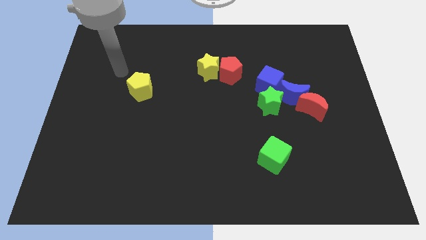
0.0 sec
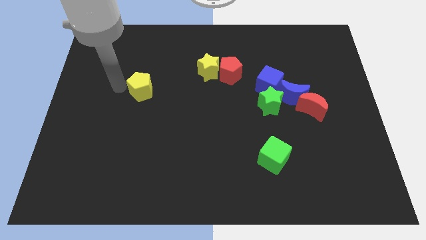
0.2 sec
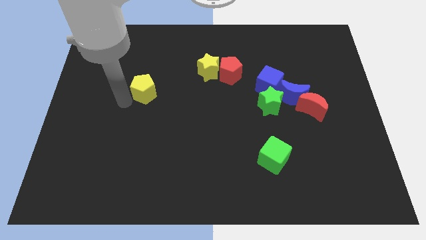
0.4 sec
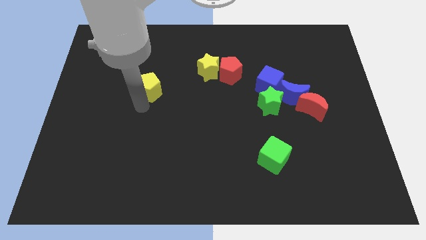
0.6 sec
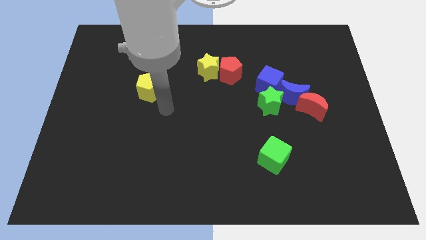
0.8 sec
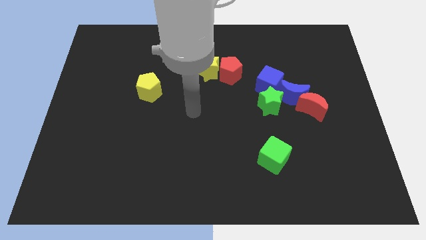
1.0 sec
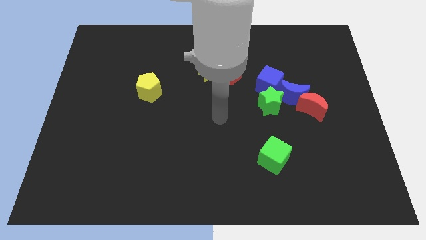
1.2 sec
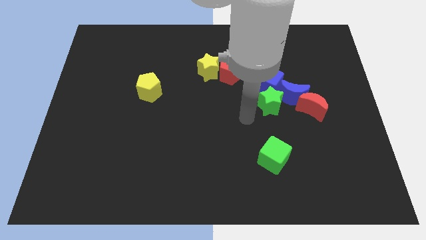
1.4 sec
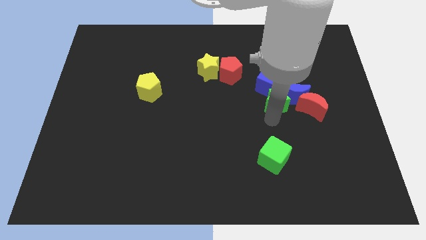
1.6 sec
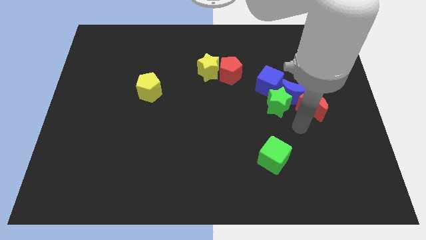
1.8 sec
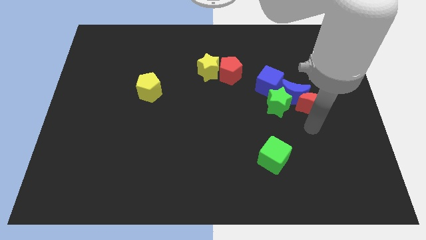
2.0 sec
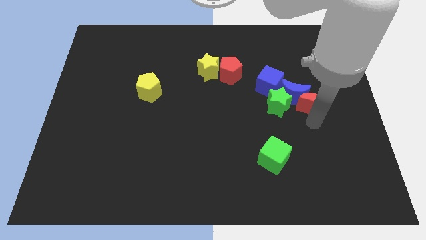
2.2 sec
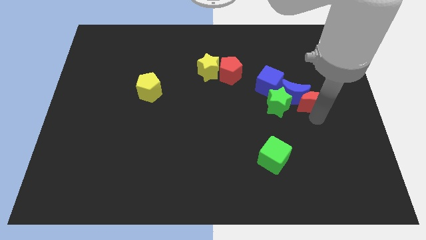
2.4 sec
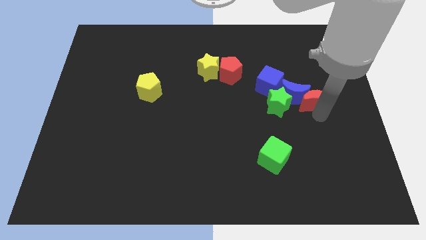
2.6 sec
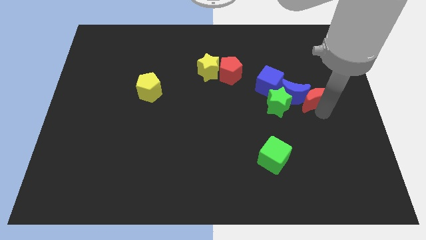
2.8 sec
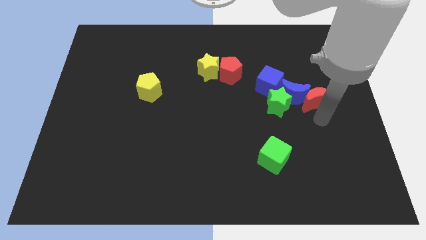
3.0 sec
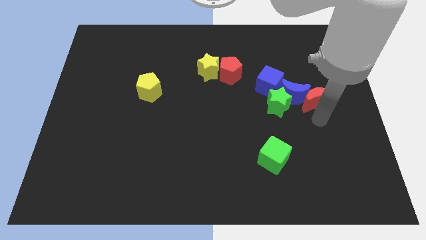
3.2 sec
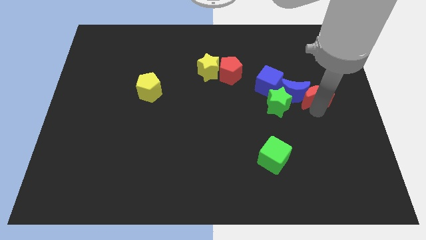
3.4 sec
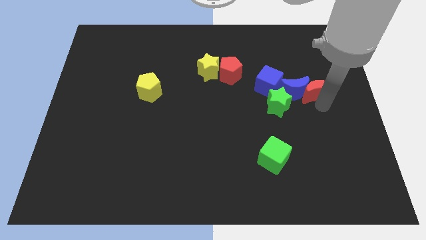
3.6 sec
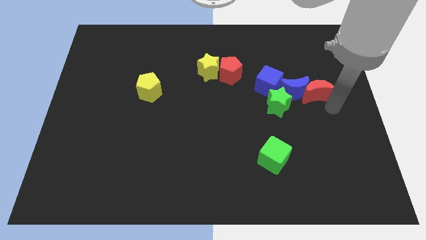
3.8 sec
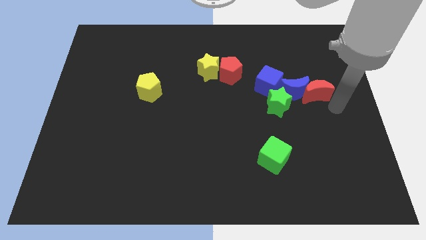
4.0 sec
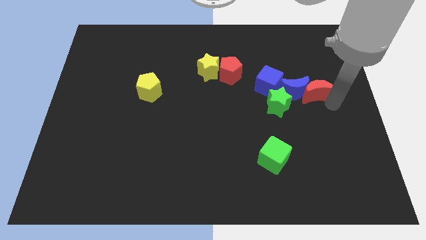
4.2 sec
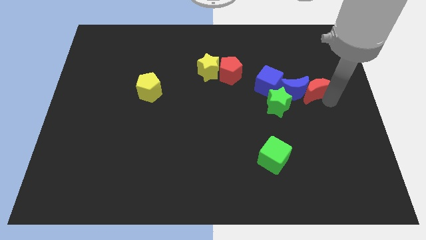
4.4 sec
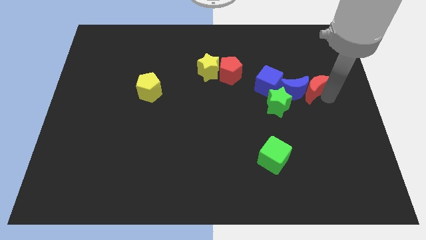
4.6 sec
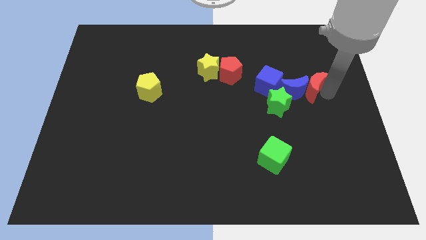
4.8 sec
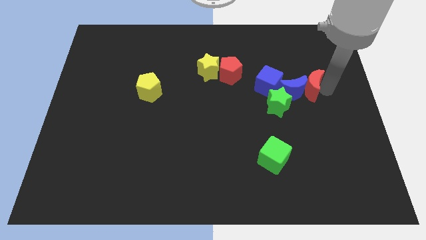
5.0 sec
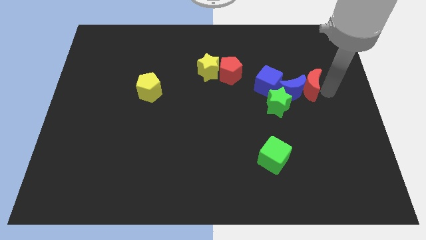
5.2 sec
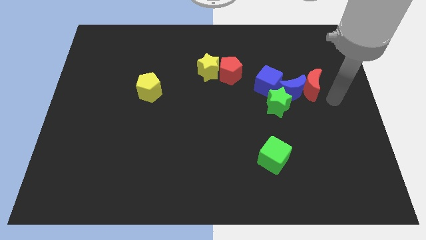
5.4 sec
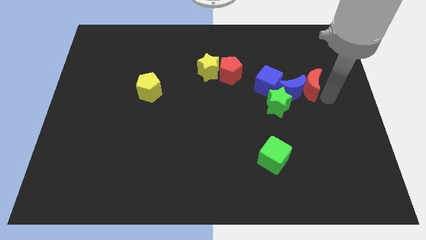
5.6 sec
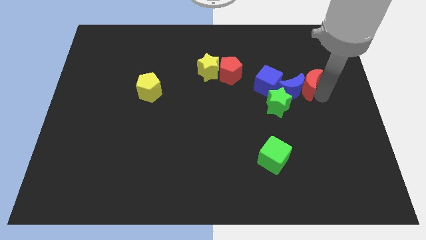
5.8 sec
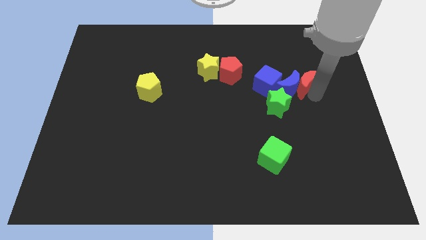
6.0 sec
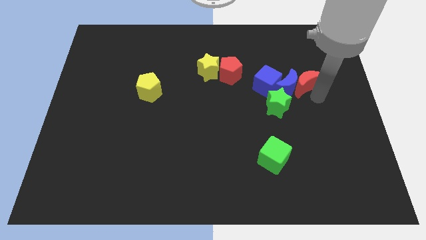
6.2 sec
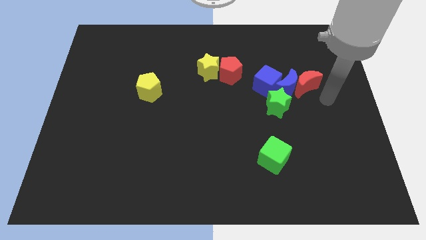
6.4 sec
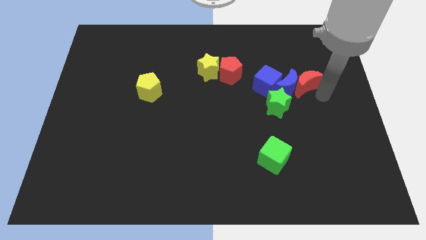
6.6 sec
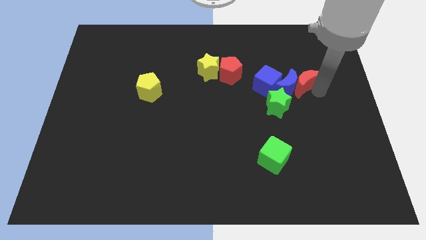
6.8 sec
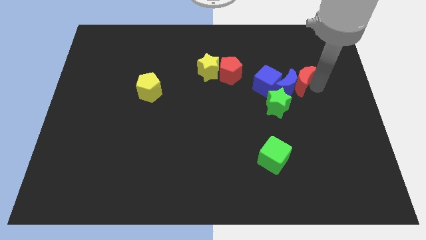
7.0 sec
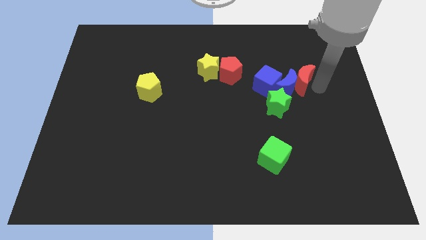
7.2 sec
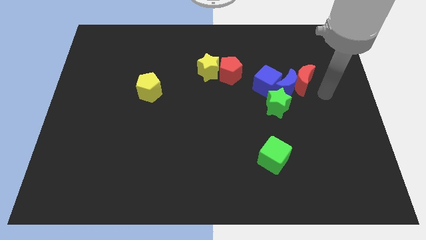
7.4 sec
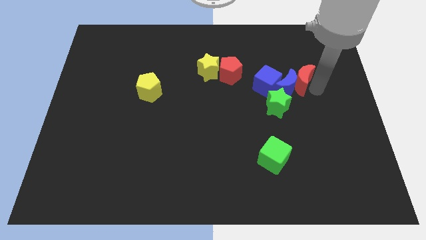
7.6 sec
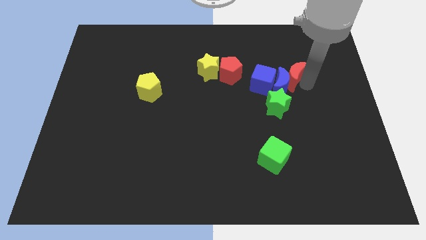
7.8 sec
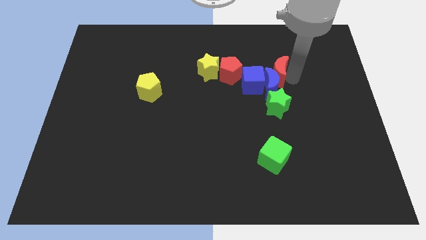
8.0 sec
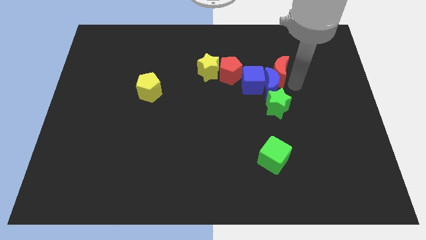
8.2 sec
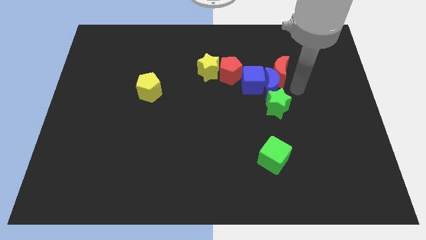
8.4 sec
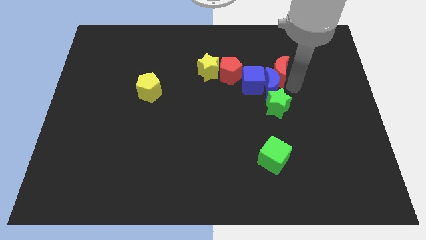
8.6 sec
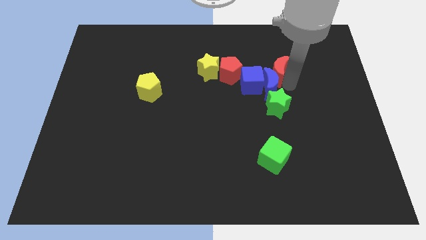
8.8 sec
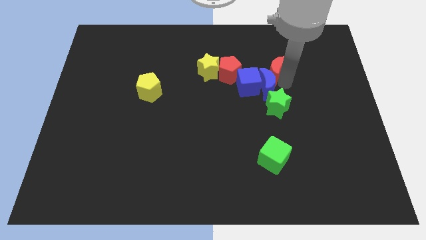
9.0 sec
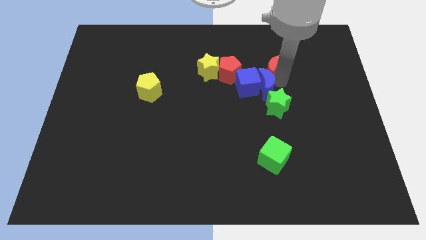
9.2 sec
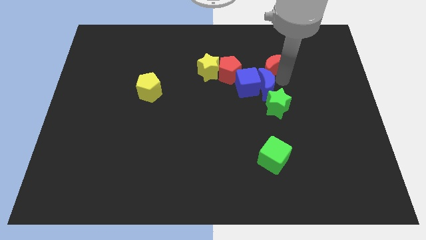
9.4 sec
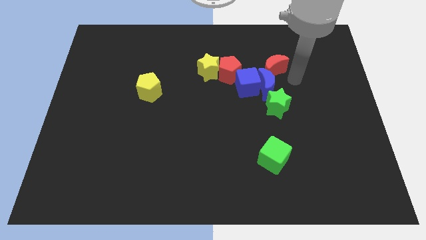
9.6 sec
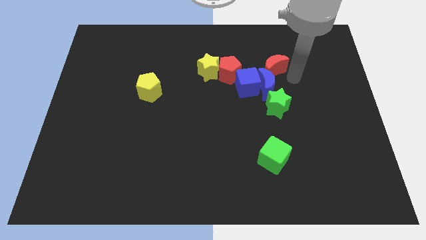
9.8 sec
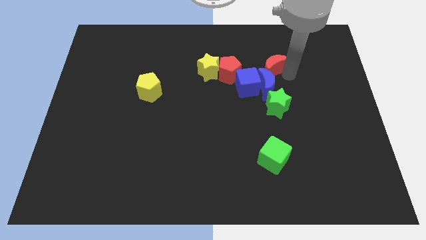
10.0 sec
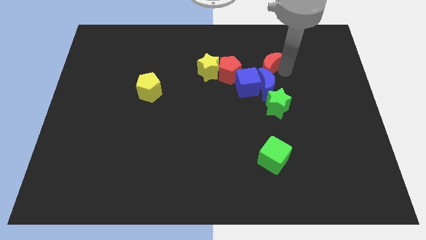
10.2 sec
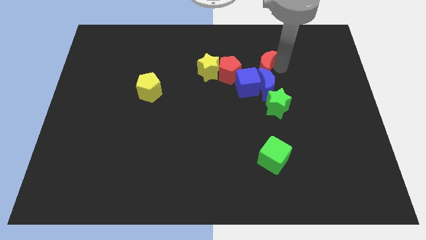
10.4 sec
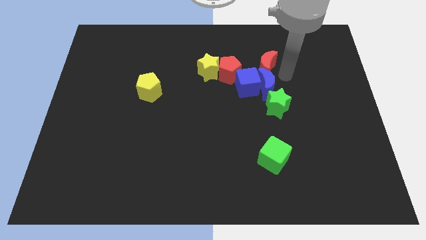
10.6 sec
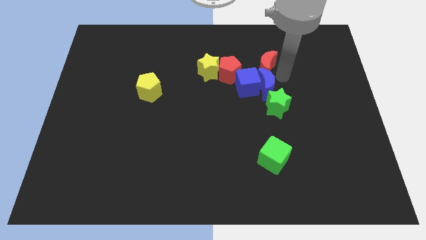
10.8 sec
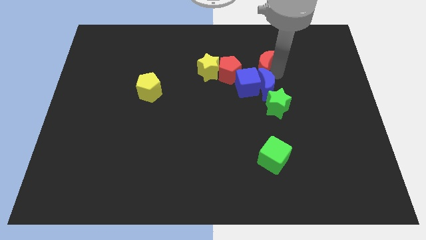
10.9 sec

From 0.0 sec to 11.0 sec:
move the red moon to the top right of the red pentagon
